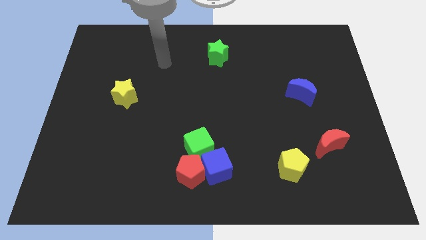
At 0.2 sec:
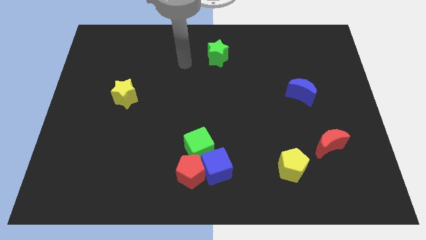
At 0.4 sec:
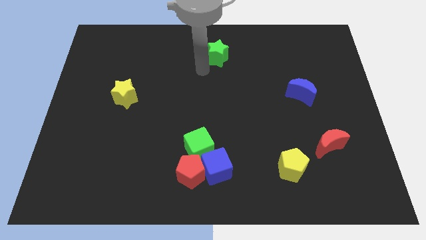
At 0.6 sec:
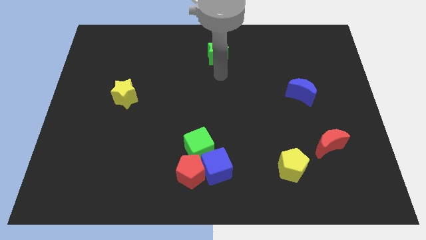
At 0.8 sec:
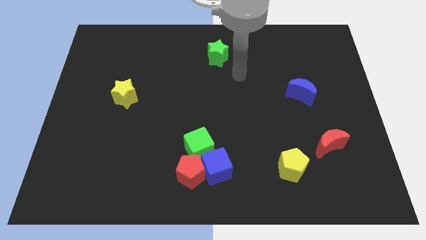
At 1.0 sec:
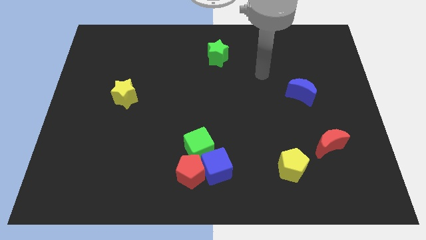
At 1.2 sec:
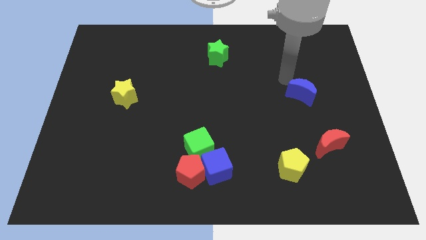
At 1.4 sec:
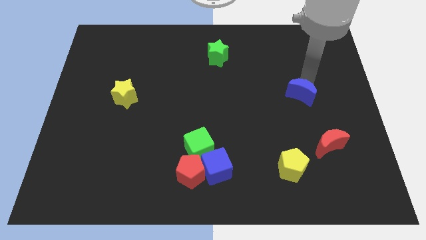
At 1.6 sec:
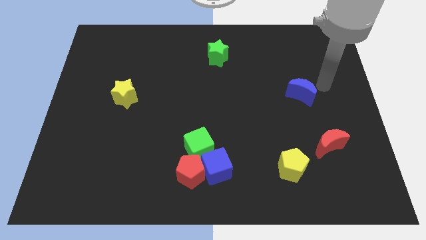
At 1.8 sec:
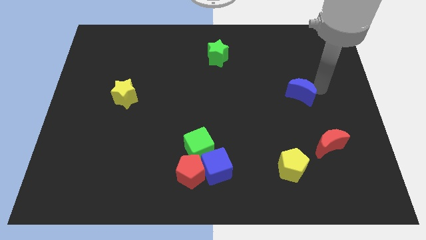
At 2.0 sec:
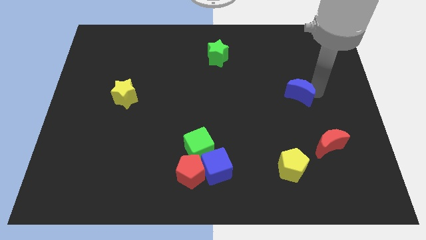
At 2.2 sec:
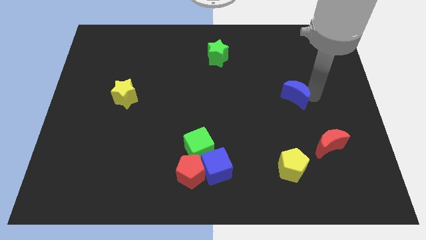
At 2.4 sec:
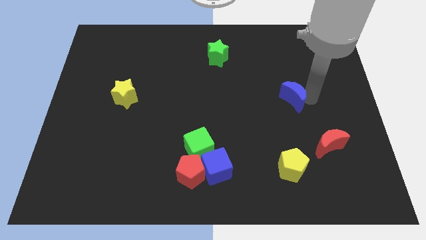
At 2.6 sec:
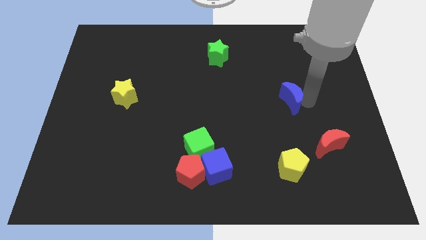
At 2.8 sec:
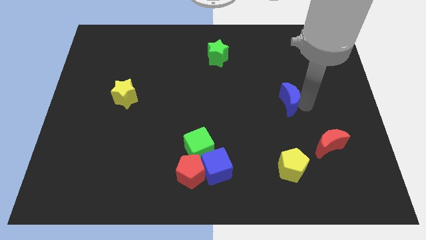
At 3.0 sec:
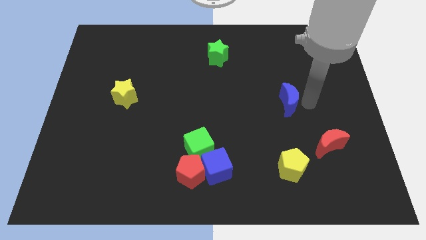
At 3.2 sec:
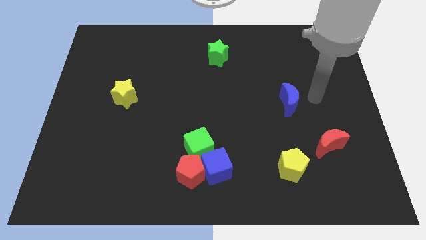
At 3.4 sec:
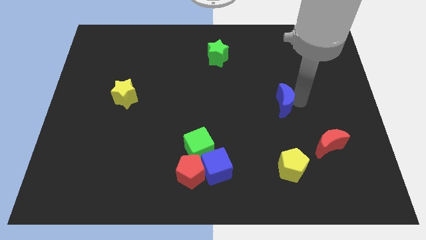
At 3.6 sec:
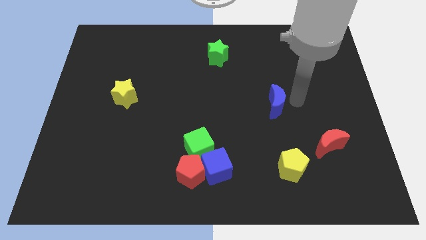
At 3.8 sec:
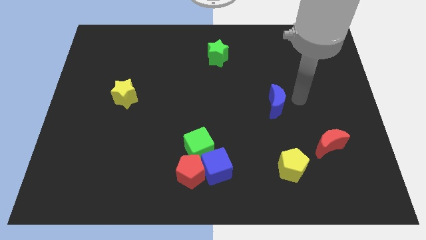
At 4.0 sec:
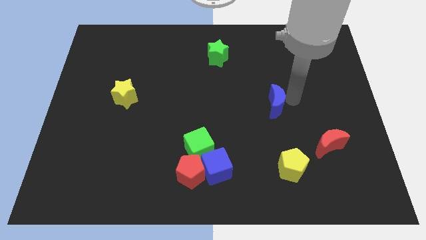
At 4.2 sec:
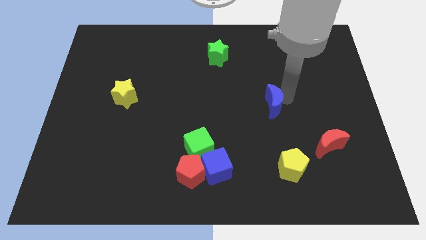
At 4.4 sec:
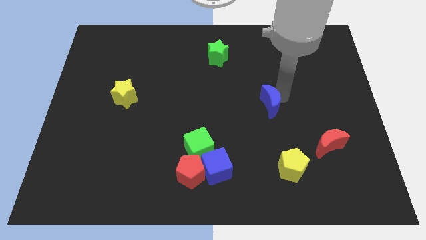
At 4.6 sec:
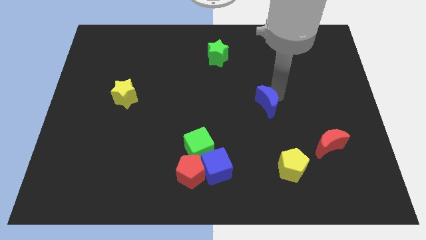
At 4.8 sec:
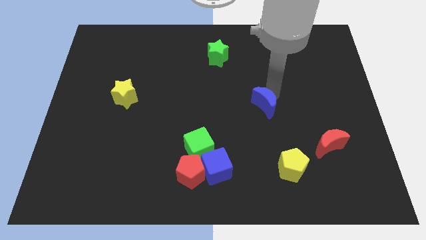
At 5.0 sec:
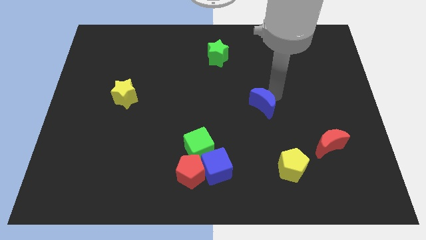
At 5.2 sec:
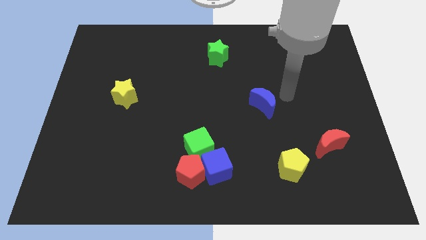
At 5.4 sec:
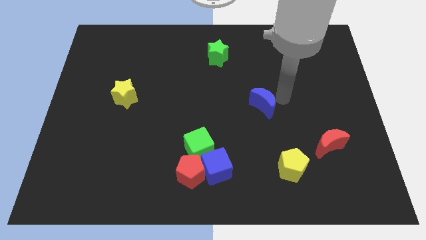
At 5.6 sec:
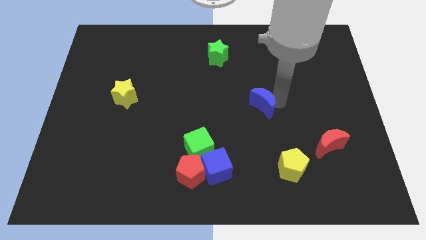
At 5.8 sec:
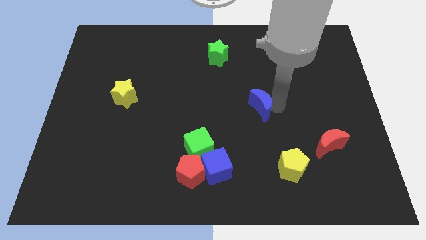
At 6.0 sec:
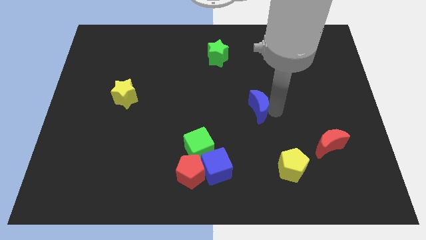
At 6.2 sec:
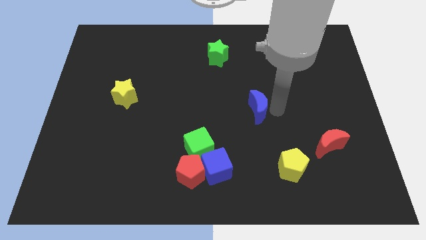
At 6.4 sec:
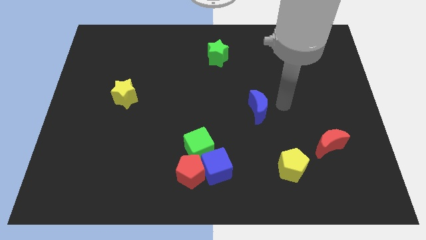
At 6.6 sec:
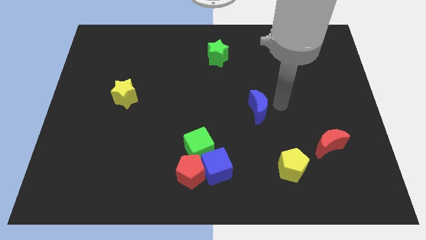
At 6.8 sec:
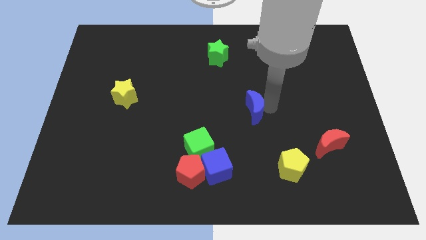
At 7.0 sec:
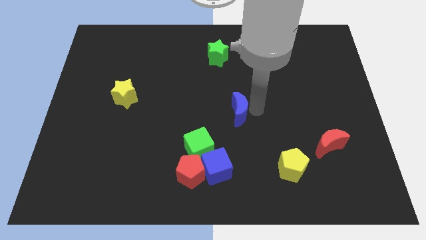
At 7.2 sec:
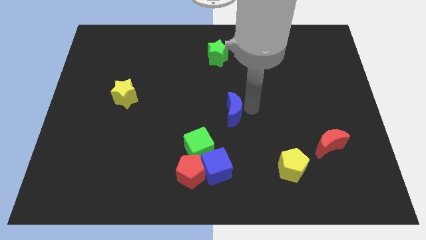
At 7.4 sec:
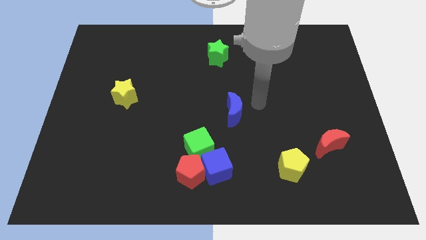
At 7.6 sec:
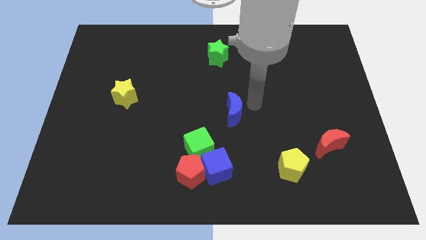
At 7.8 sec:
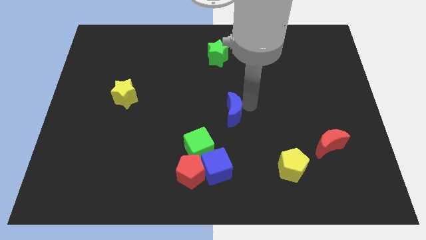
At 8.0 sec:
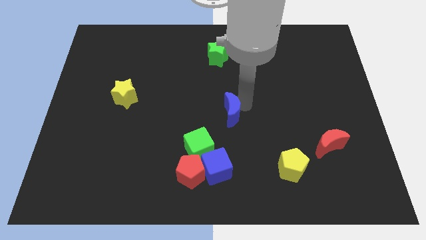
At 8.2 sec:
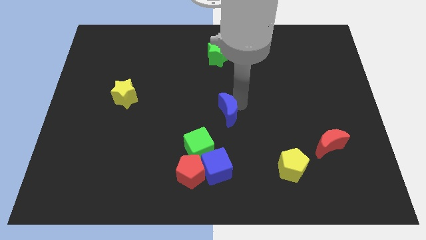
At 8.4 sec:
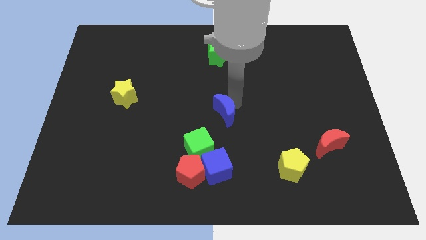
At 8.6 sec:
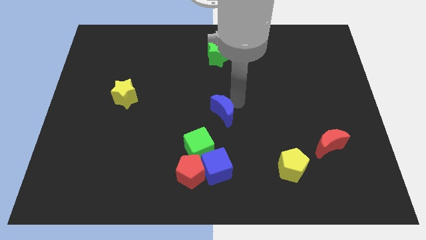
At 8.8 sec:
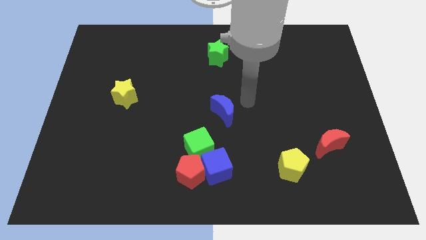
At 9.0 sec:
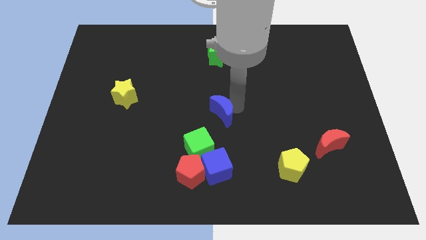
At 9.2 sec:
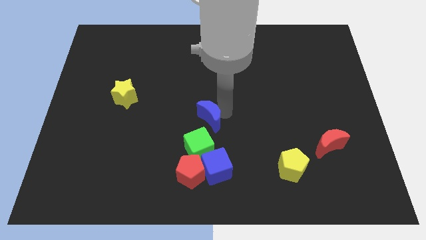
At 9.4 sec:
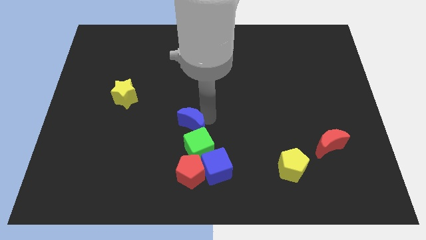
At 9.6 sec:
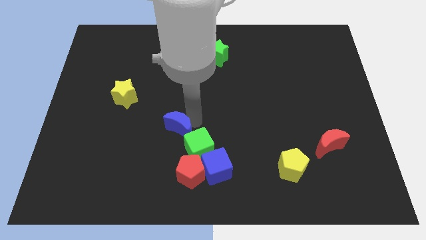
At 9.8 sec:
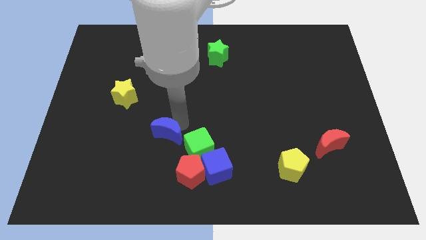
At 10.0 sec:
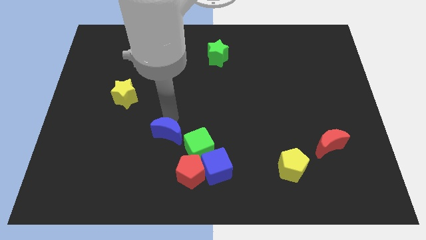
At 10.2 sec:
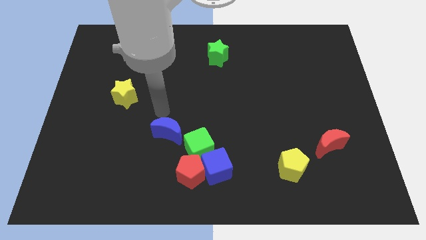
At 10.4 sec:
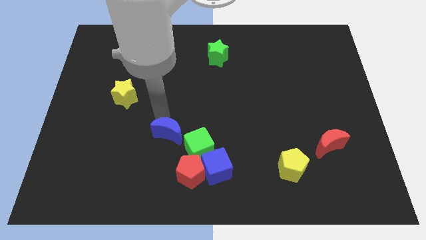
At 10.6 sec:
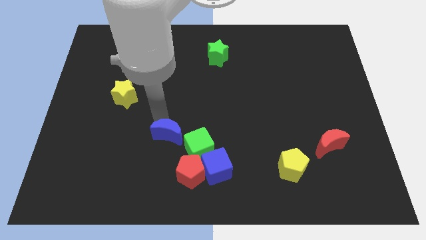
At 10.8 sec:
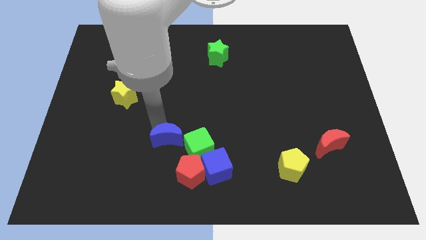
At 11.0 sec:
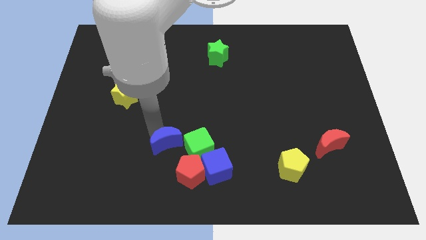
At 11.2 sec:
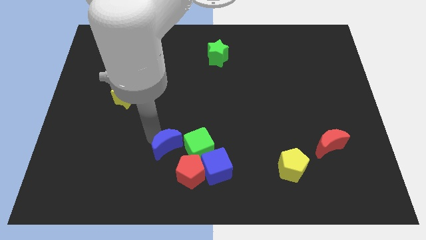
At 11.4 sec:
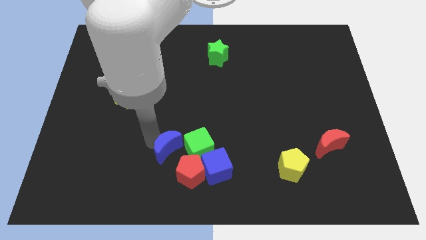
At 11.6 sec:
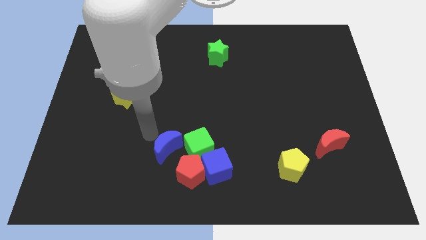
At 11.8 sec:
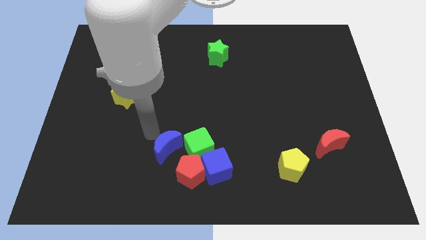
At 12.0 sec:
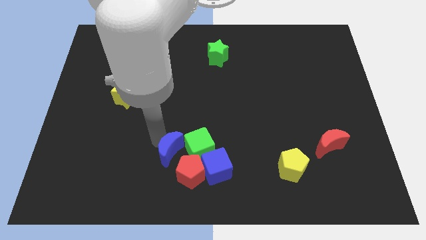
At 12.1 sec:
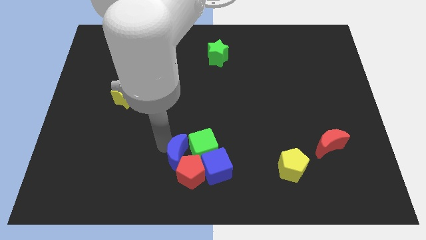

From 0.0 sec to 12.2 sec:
move the blue moon next to the red pentagon

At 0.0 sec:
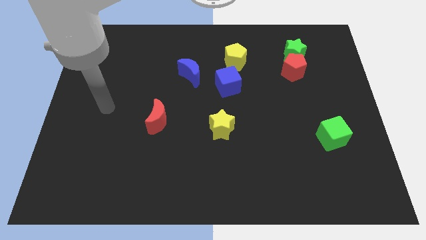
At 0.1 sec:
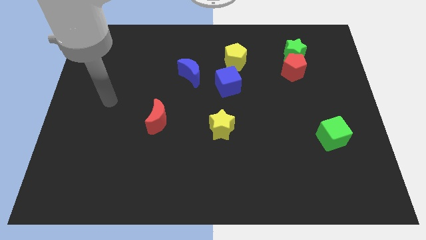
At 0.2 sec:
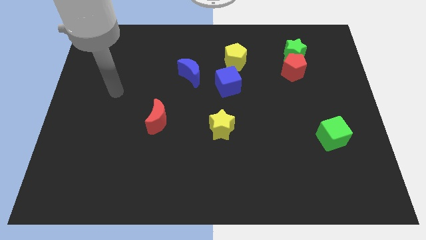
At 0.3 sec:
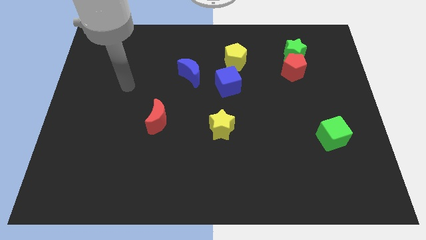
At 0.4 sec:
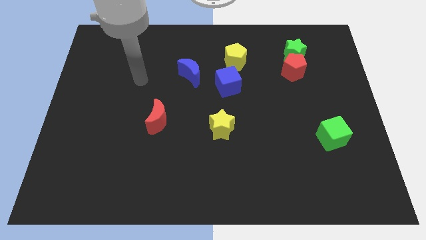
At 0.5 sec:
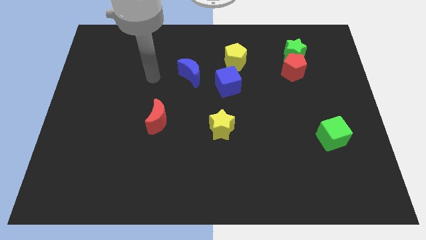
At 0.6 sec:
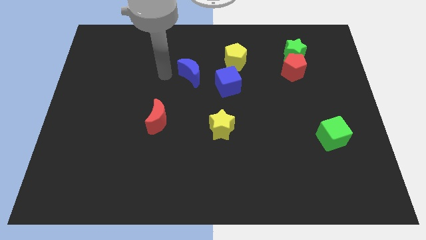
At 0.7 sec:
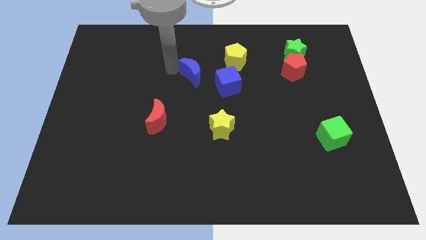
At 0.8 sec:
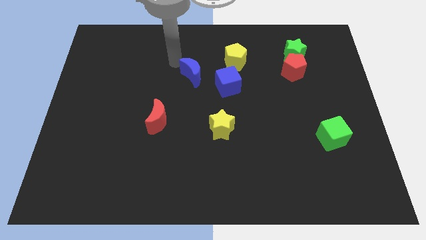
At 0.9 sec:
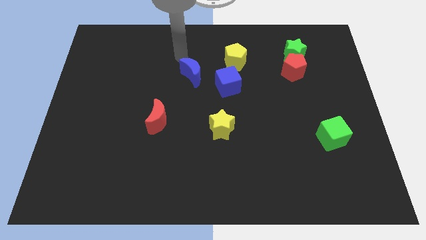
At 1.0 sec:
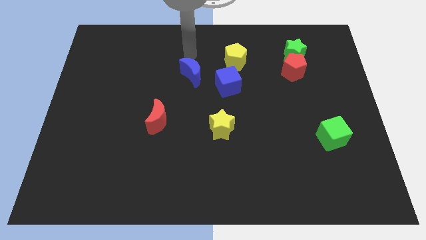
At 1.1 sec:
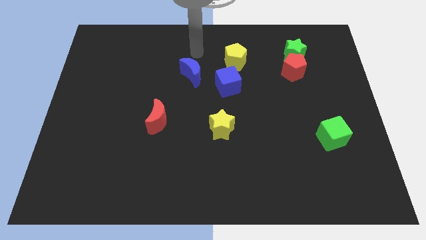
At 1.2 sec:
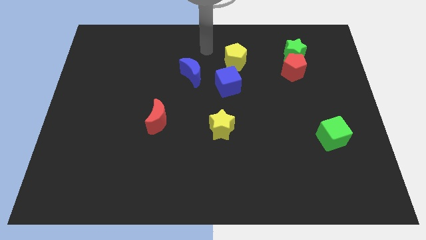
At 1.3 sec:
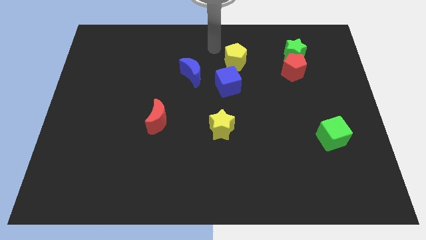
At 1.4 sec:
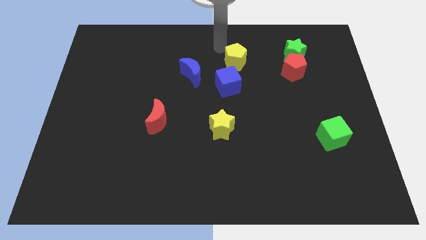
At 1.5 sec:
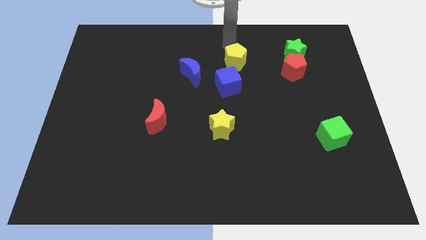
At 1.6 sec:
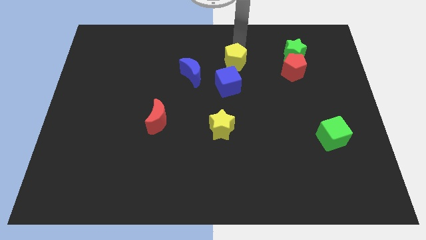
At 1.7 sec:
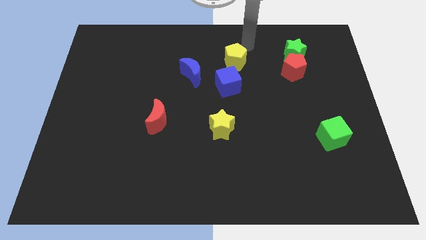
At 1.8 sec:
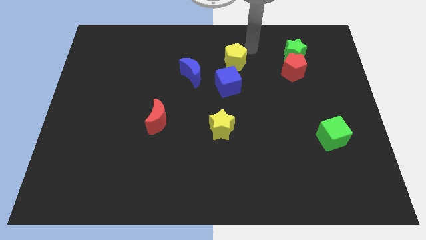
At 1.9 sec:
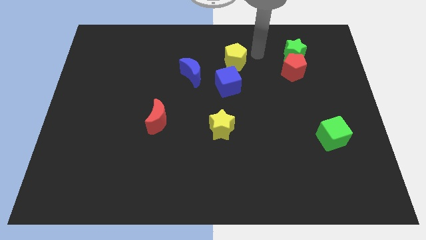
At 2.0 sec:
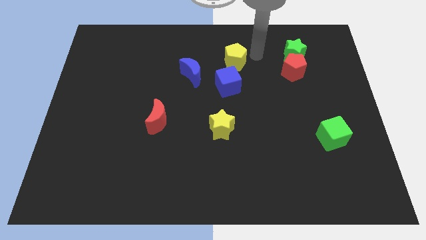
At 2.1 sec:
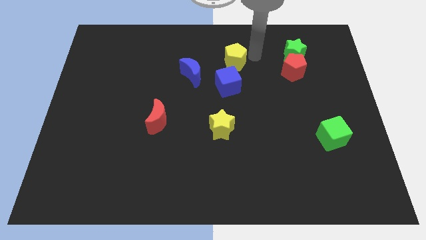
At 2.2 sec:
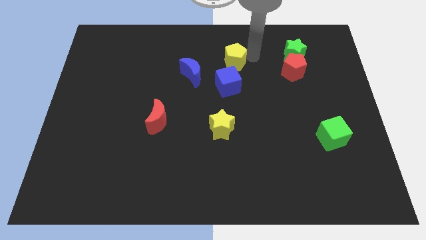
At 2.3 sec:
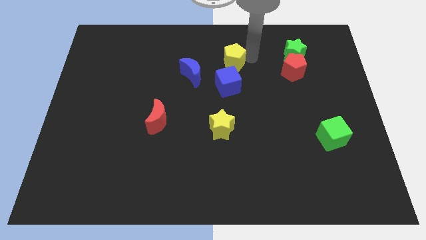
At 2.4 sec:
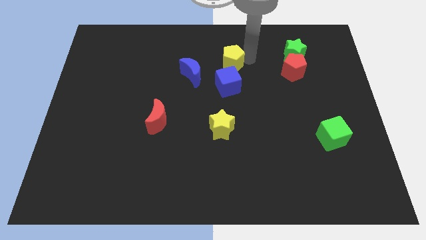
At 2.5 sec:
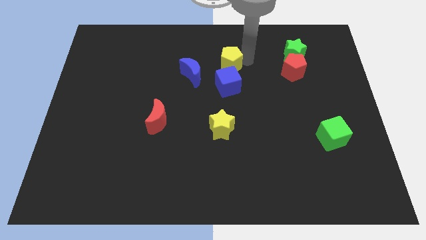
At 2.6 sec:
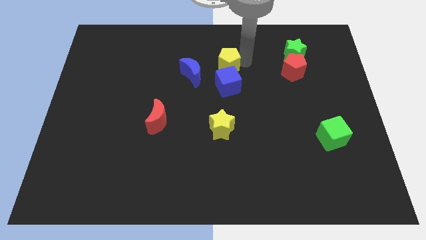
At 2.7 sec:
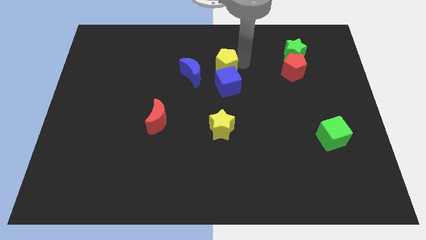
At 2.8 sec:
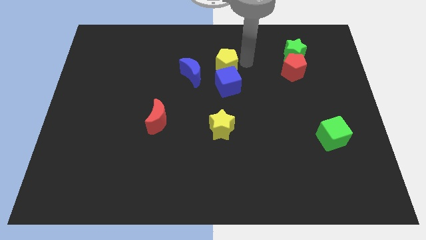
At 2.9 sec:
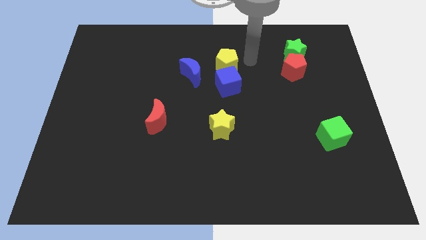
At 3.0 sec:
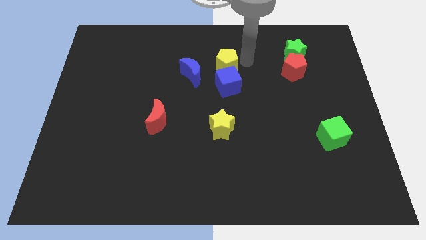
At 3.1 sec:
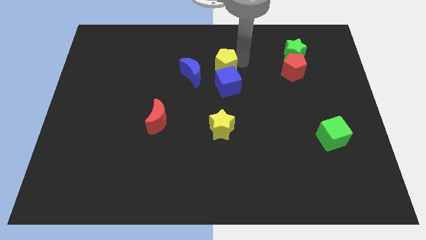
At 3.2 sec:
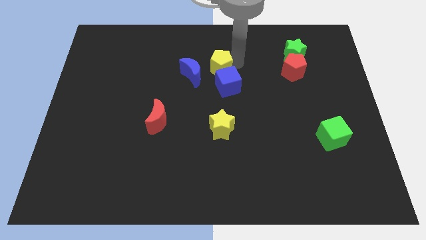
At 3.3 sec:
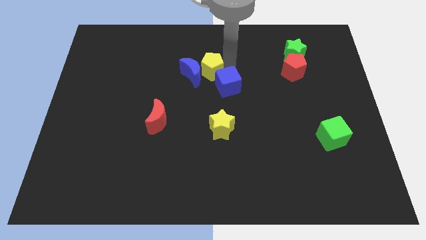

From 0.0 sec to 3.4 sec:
push the yellow pentagon close to the blue moon
